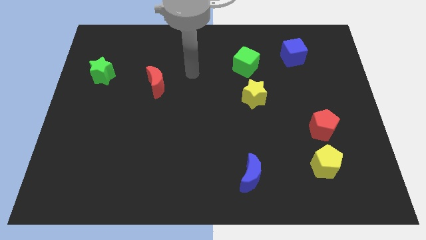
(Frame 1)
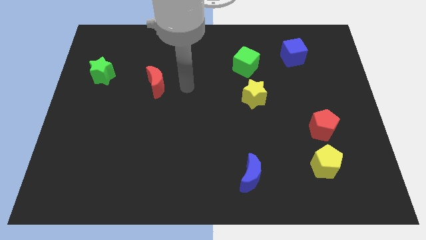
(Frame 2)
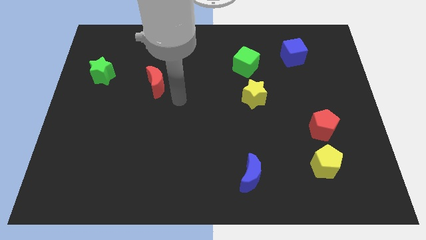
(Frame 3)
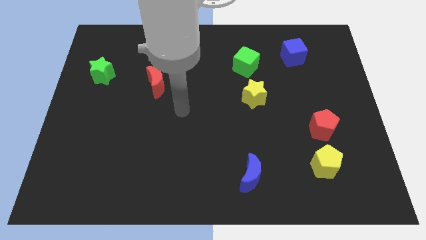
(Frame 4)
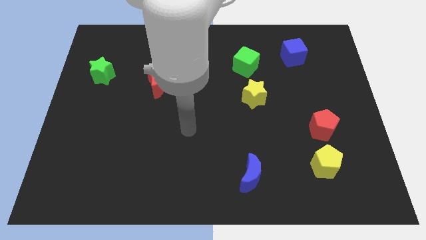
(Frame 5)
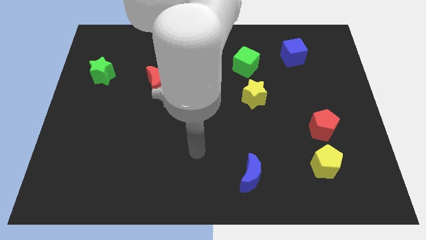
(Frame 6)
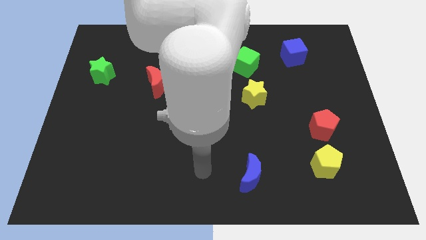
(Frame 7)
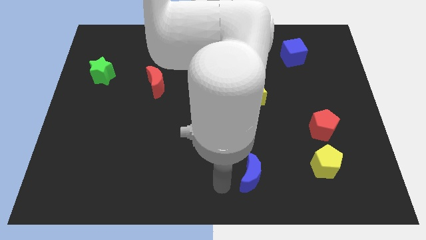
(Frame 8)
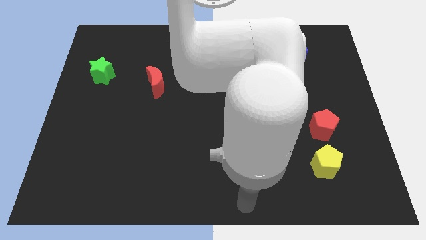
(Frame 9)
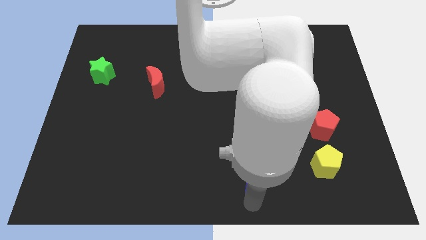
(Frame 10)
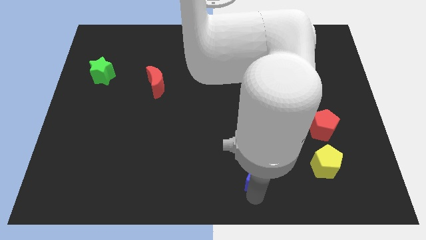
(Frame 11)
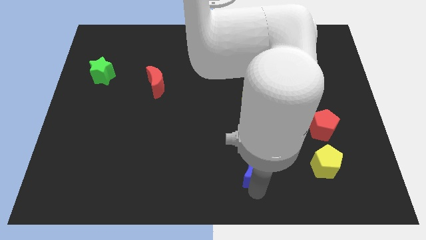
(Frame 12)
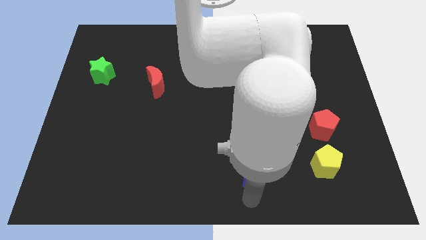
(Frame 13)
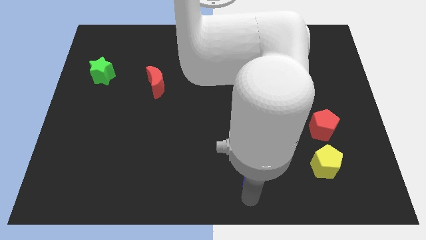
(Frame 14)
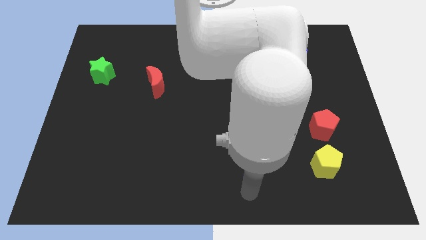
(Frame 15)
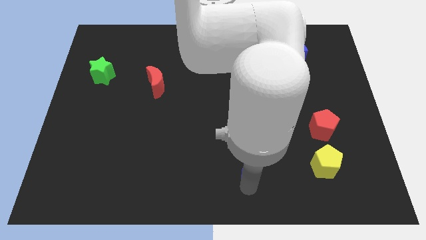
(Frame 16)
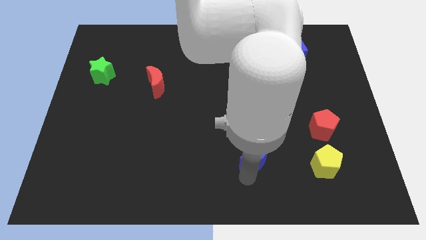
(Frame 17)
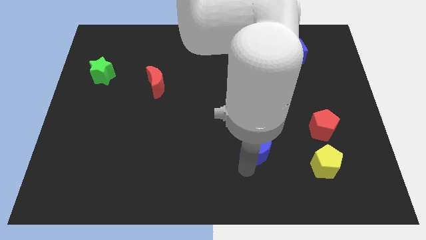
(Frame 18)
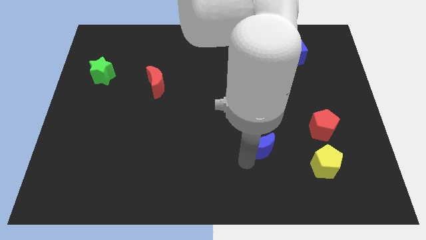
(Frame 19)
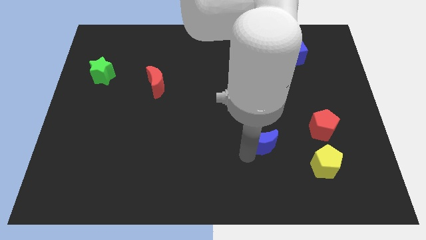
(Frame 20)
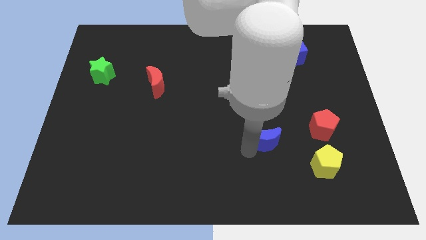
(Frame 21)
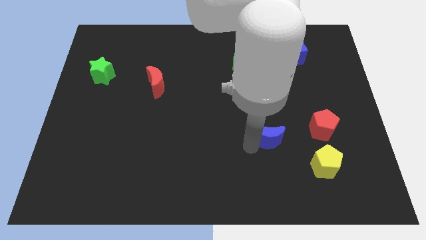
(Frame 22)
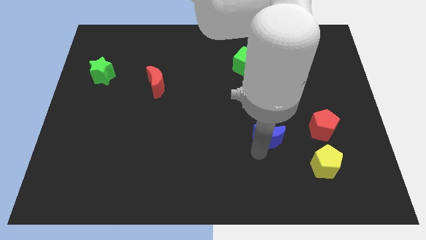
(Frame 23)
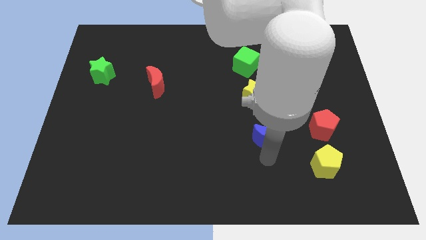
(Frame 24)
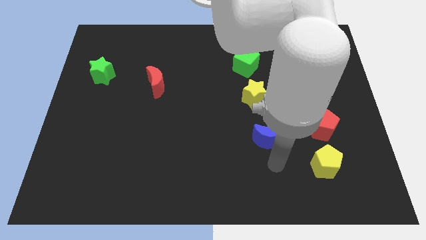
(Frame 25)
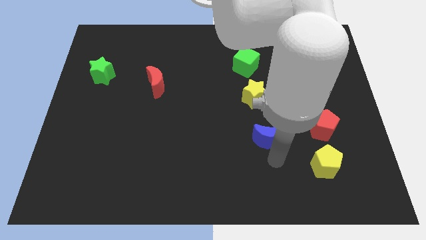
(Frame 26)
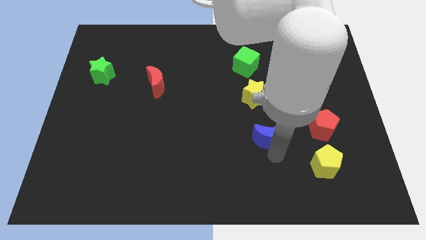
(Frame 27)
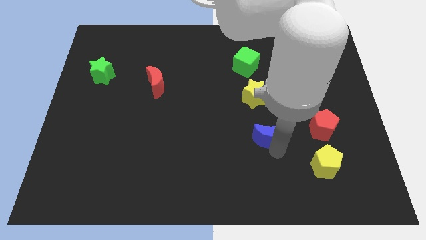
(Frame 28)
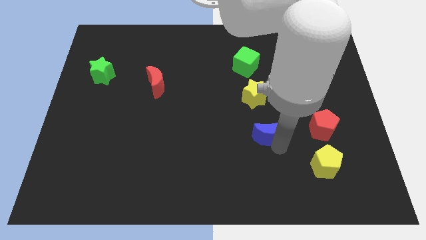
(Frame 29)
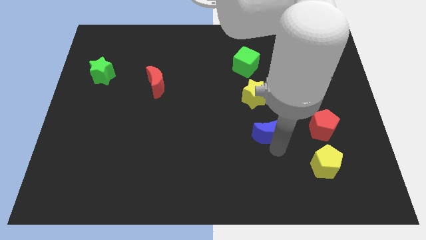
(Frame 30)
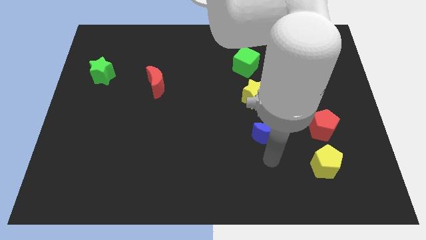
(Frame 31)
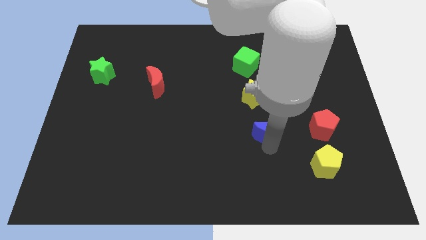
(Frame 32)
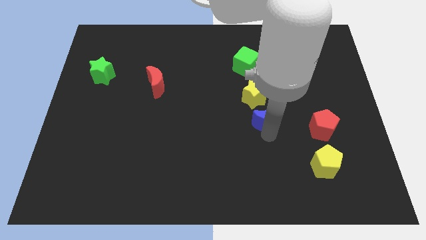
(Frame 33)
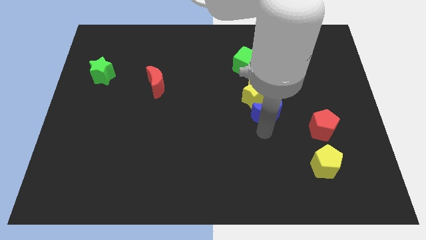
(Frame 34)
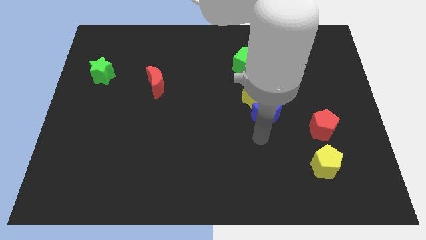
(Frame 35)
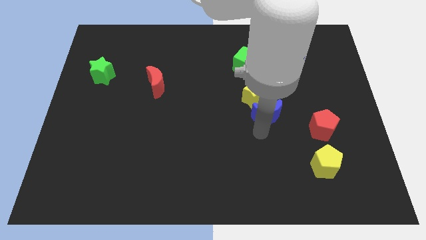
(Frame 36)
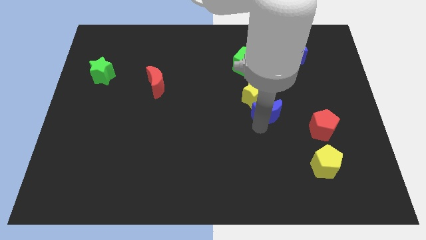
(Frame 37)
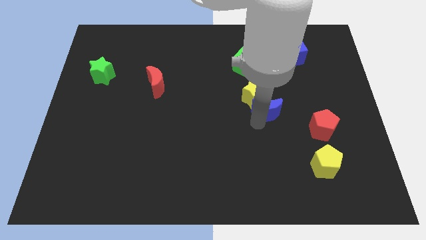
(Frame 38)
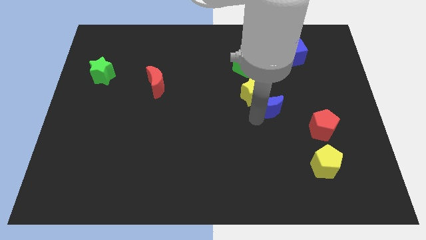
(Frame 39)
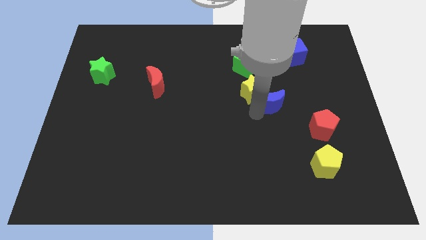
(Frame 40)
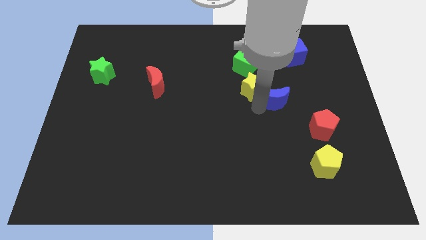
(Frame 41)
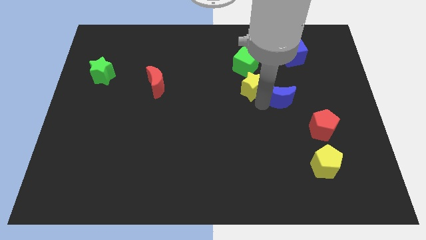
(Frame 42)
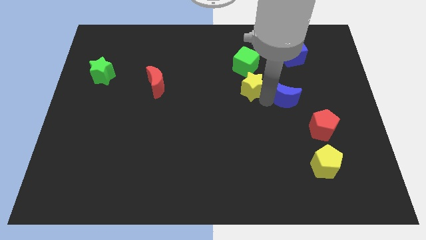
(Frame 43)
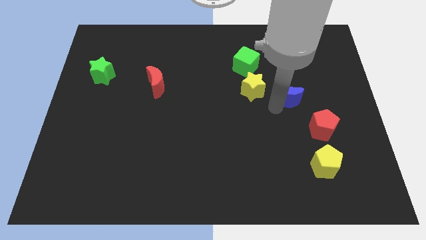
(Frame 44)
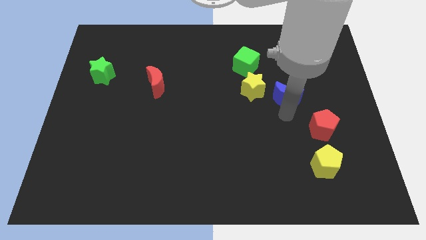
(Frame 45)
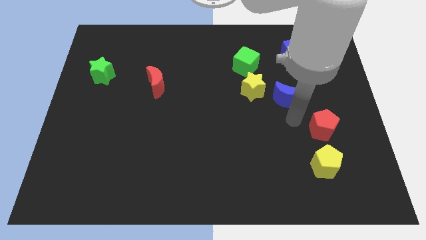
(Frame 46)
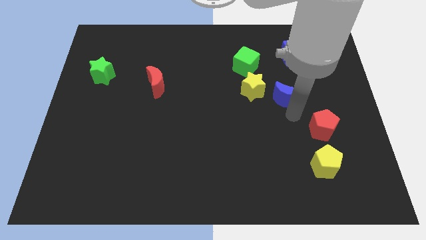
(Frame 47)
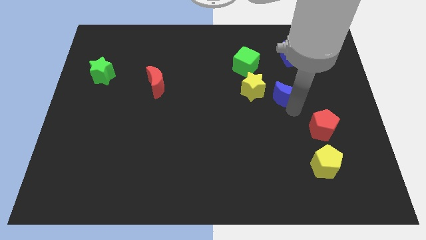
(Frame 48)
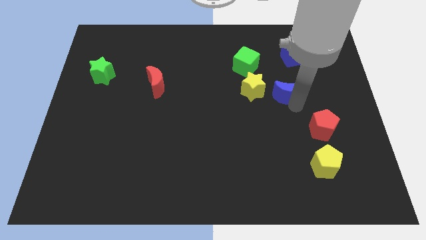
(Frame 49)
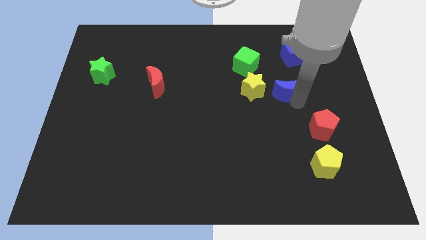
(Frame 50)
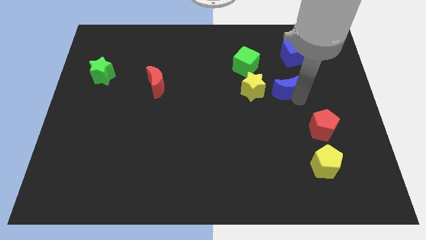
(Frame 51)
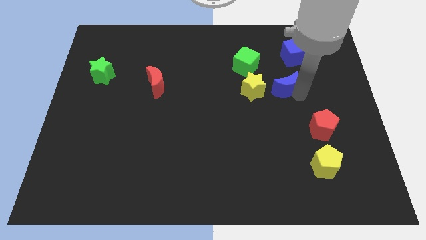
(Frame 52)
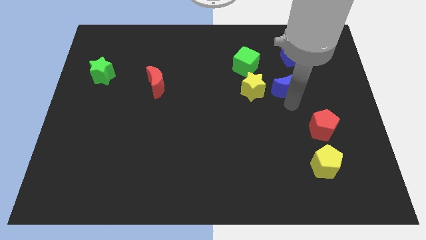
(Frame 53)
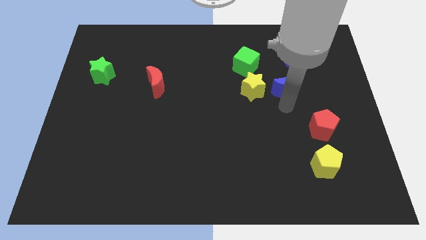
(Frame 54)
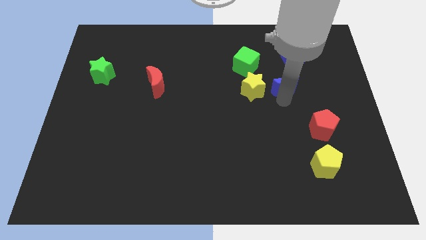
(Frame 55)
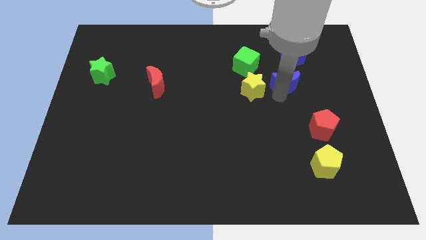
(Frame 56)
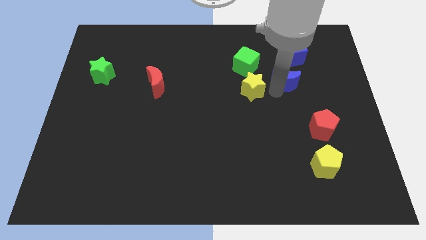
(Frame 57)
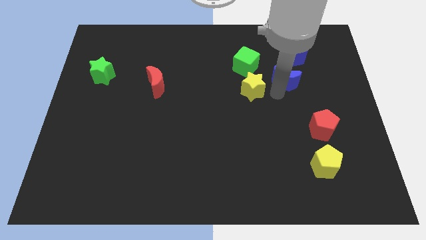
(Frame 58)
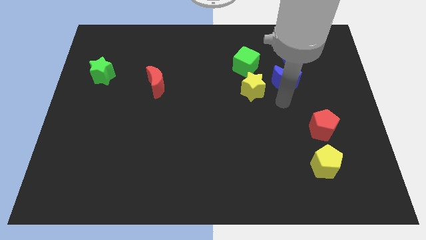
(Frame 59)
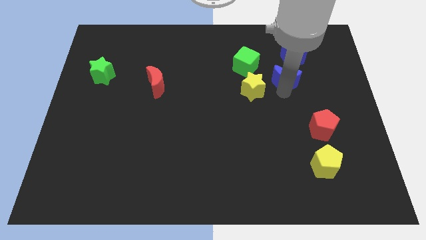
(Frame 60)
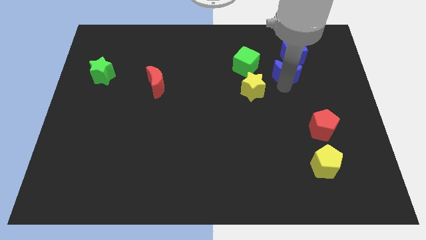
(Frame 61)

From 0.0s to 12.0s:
slide the blue moon to the right side of the green cube
